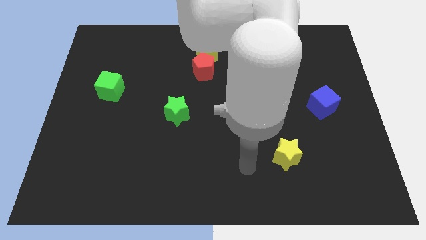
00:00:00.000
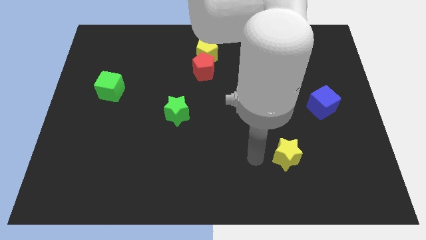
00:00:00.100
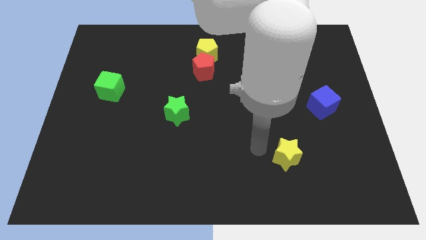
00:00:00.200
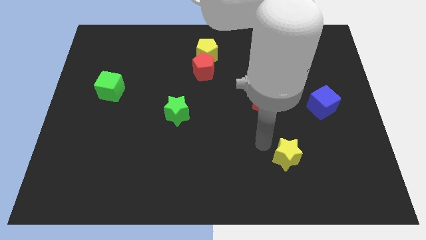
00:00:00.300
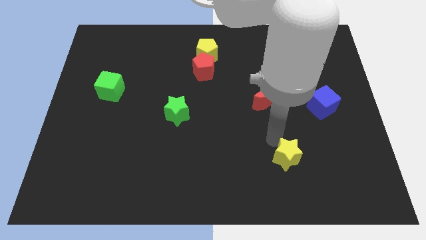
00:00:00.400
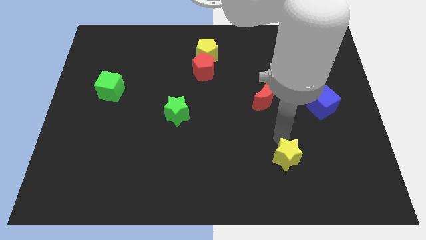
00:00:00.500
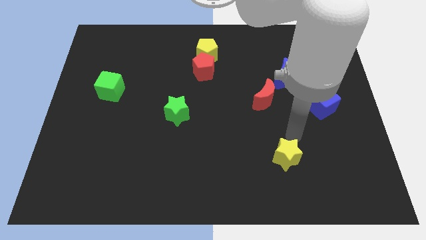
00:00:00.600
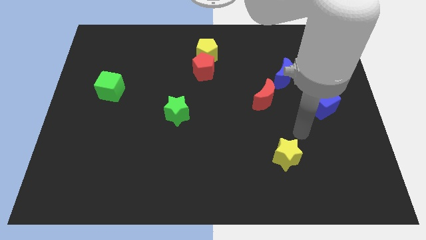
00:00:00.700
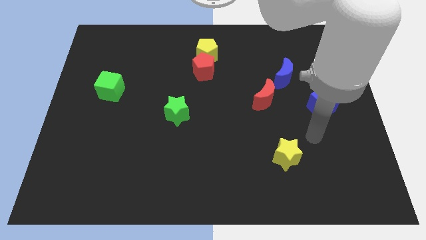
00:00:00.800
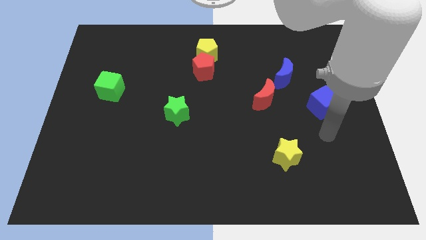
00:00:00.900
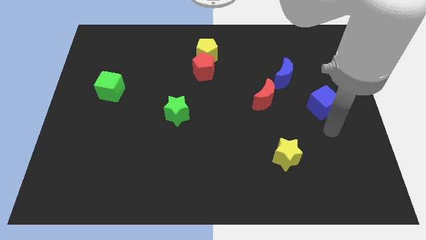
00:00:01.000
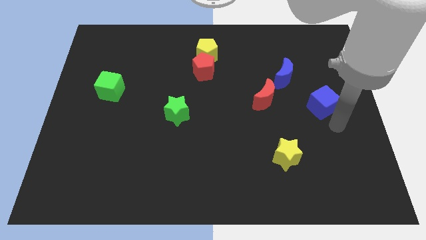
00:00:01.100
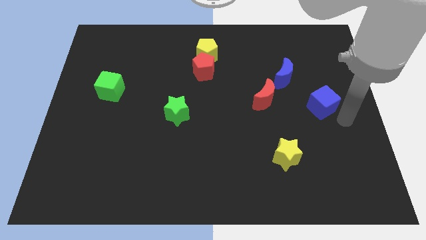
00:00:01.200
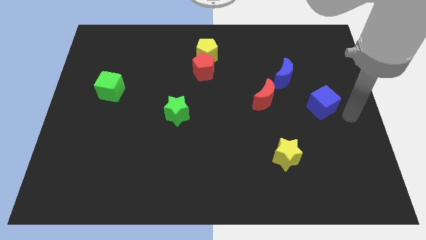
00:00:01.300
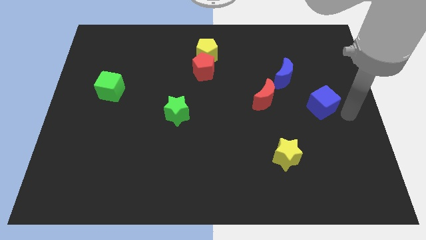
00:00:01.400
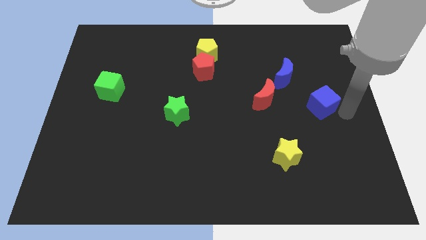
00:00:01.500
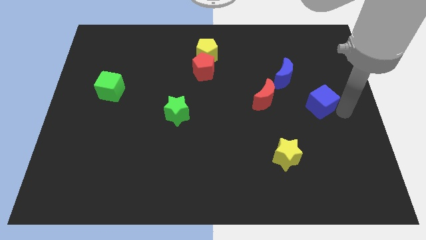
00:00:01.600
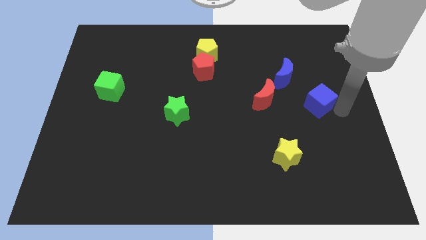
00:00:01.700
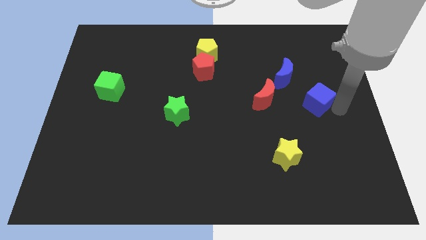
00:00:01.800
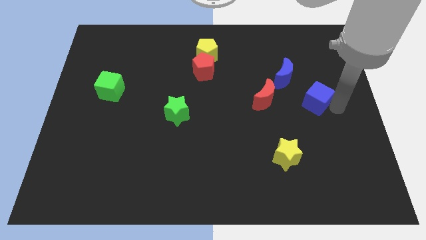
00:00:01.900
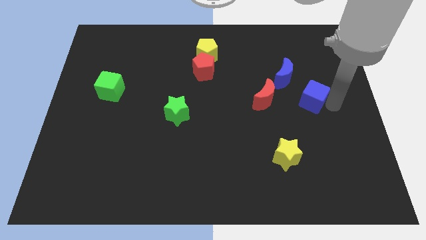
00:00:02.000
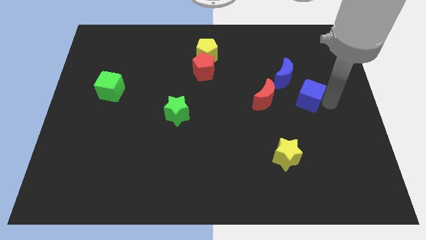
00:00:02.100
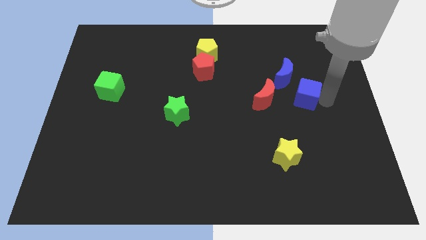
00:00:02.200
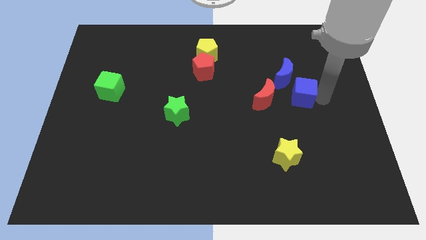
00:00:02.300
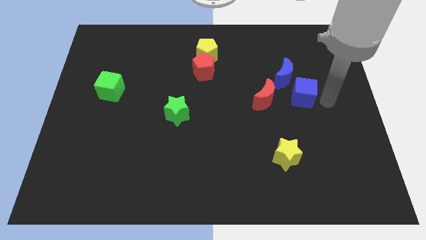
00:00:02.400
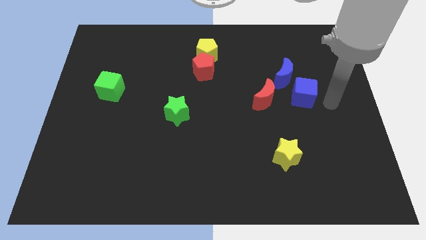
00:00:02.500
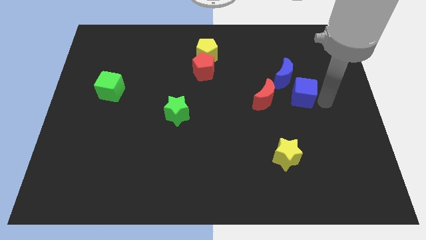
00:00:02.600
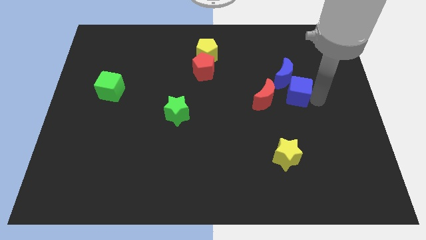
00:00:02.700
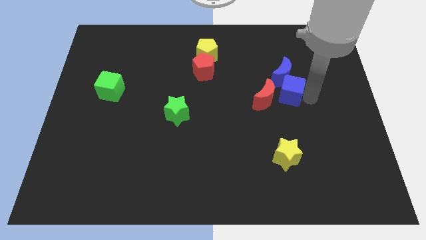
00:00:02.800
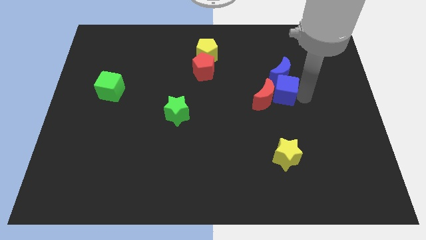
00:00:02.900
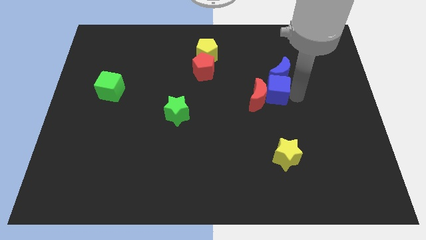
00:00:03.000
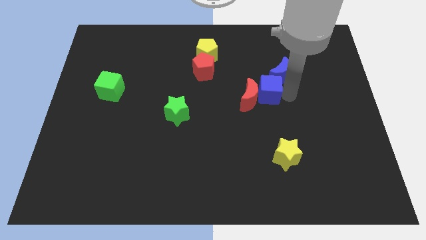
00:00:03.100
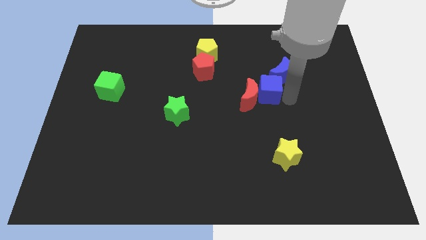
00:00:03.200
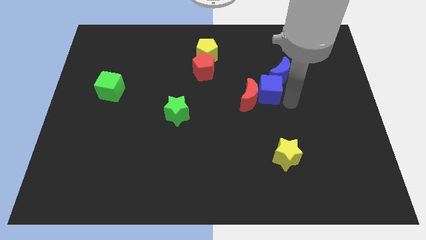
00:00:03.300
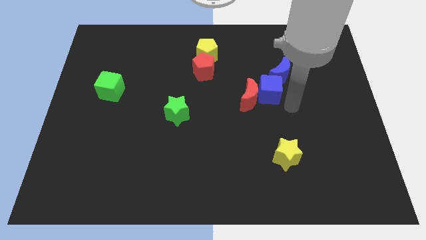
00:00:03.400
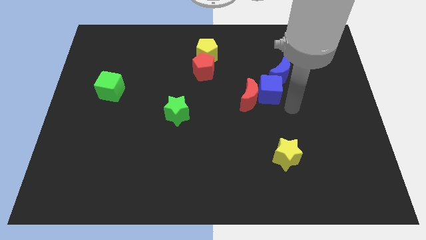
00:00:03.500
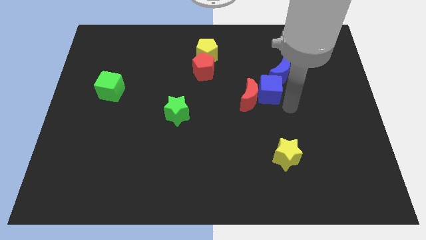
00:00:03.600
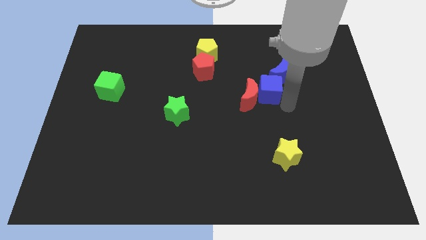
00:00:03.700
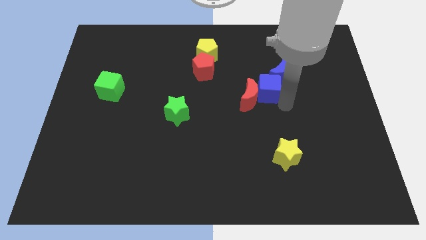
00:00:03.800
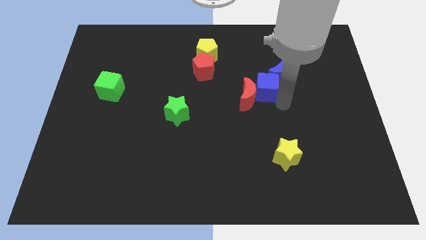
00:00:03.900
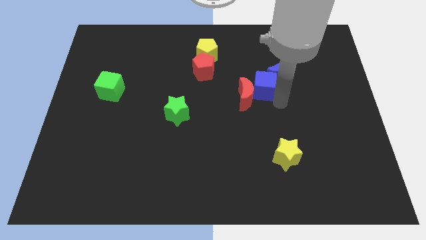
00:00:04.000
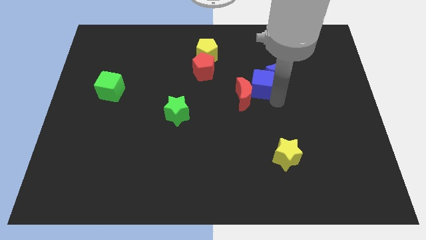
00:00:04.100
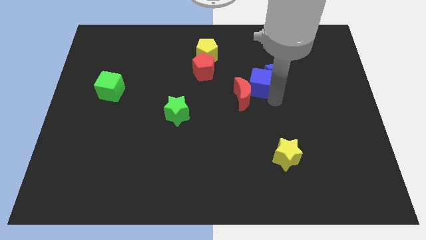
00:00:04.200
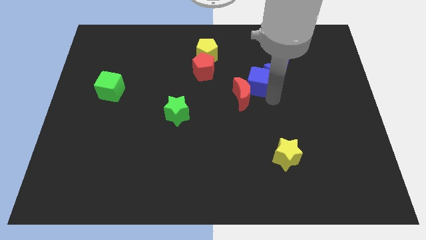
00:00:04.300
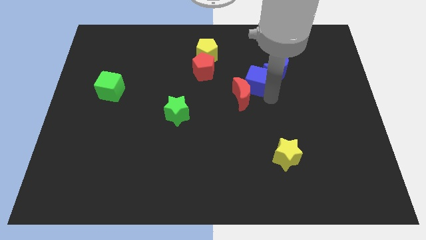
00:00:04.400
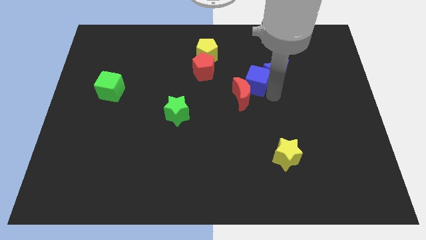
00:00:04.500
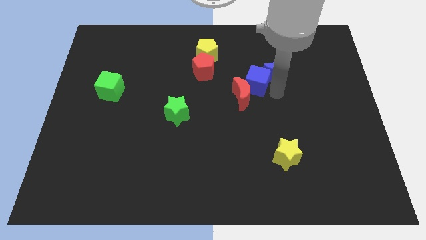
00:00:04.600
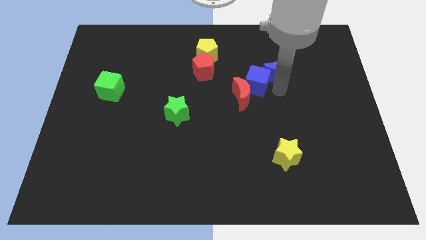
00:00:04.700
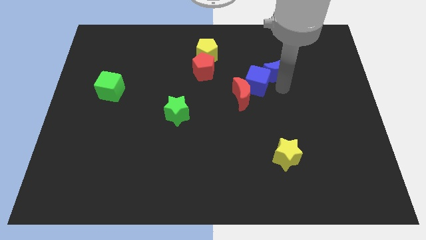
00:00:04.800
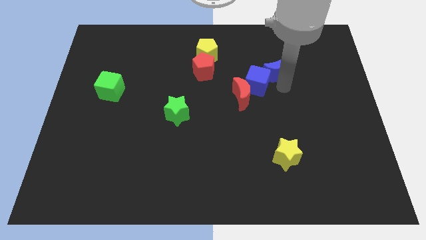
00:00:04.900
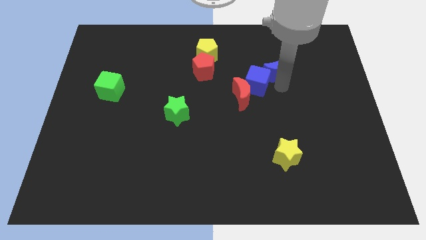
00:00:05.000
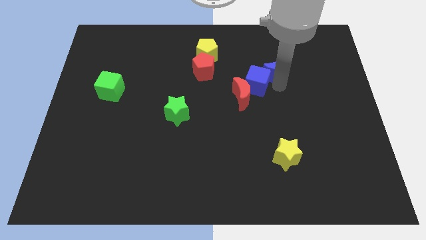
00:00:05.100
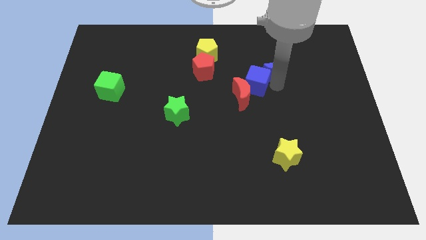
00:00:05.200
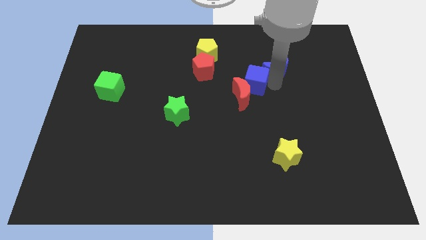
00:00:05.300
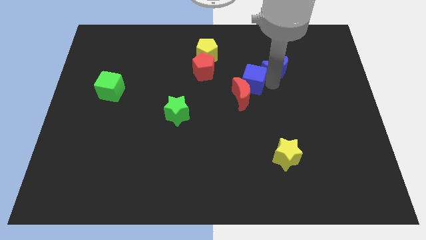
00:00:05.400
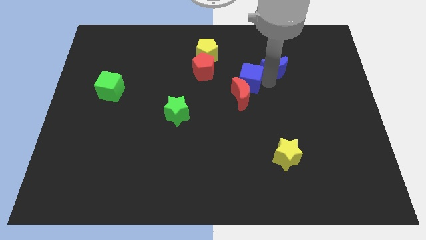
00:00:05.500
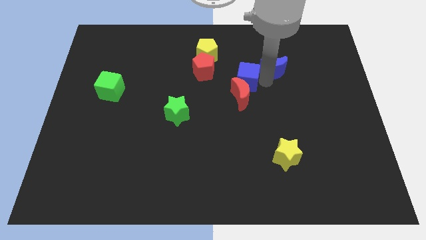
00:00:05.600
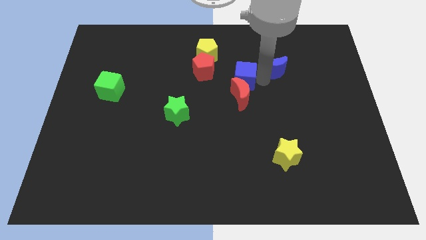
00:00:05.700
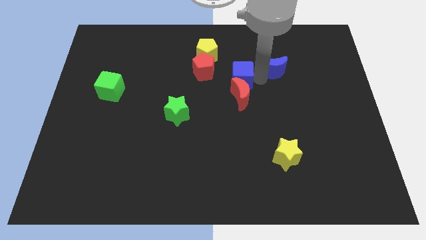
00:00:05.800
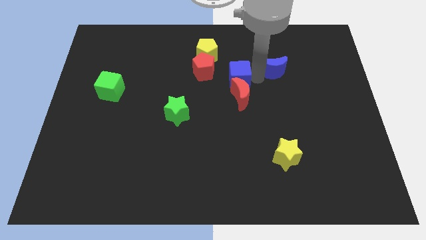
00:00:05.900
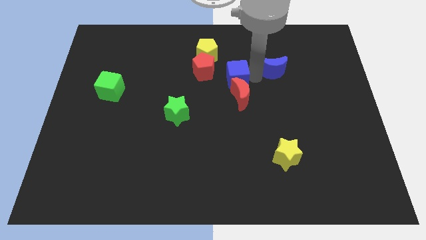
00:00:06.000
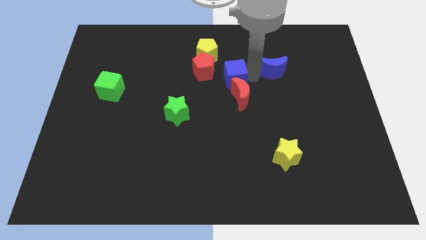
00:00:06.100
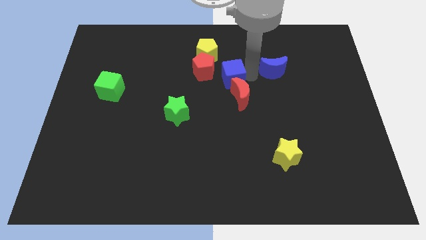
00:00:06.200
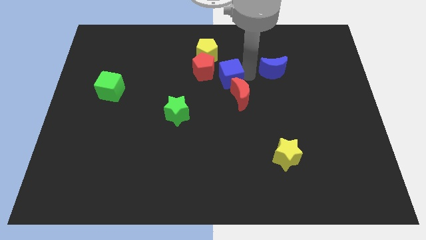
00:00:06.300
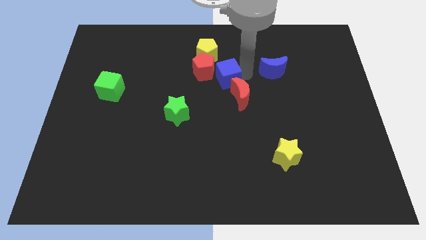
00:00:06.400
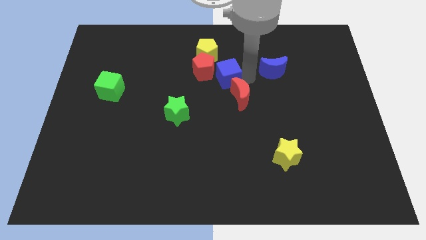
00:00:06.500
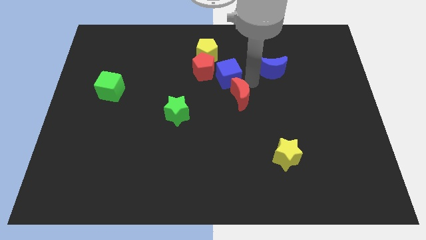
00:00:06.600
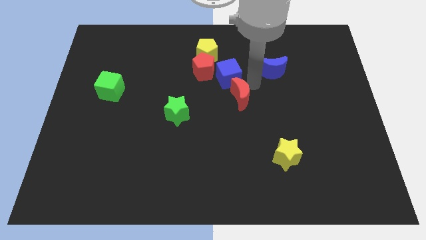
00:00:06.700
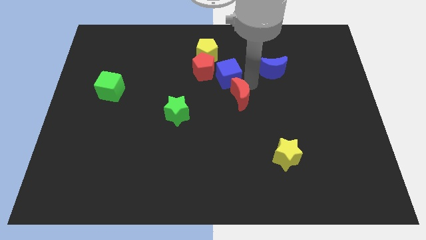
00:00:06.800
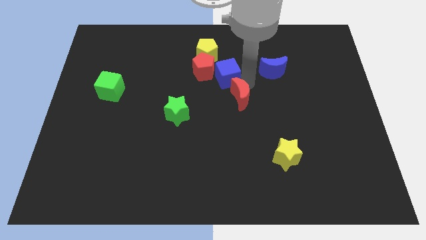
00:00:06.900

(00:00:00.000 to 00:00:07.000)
move the blue cube to the red pentagon

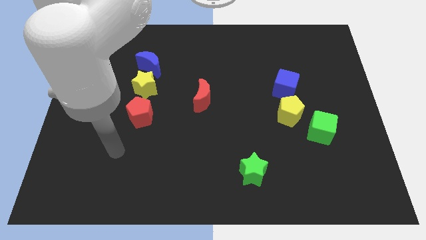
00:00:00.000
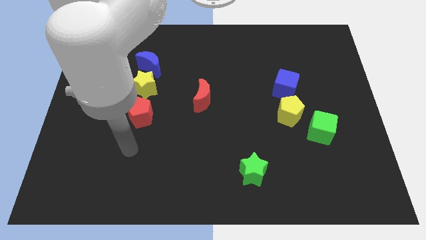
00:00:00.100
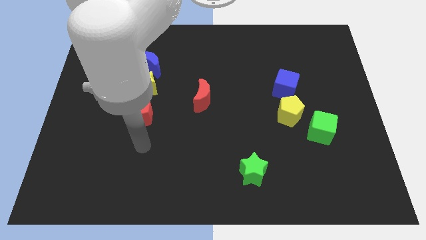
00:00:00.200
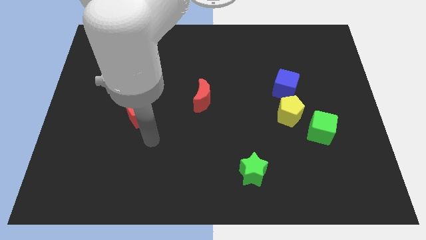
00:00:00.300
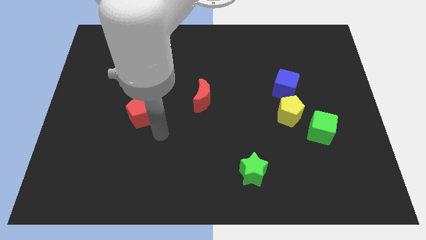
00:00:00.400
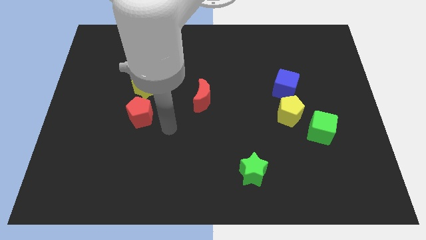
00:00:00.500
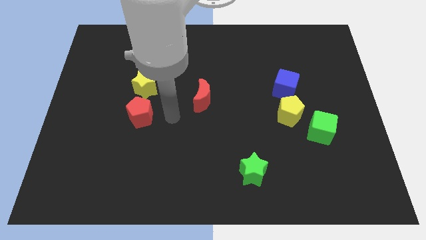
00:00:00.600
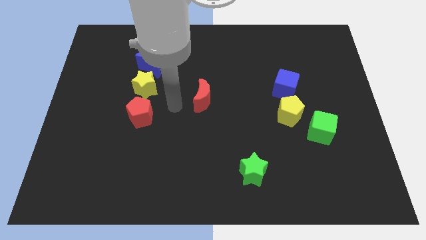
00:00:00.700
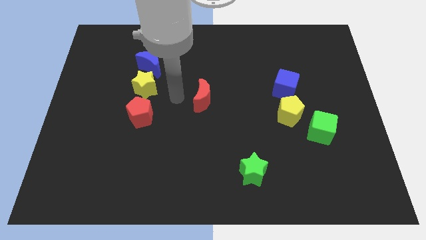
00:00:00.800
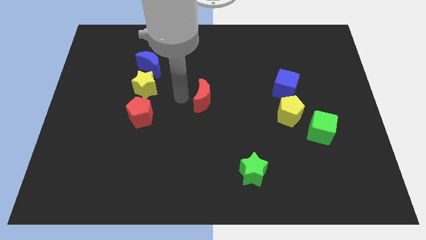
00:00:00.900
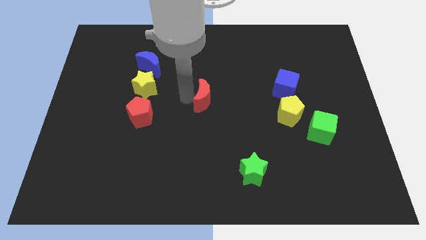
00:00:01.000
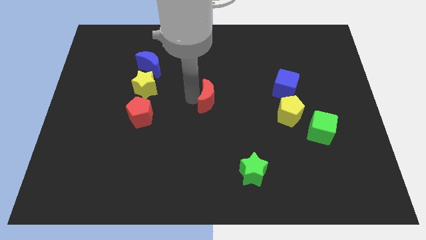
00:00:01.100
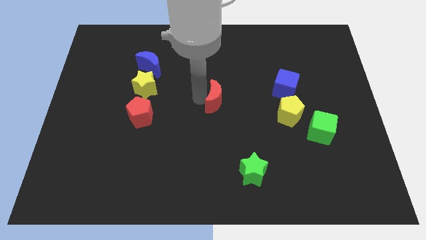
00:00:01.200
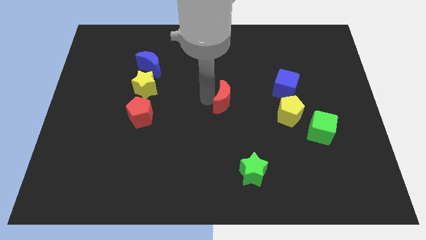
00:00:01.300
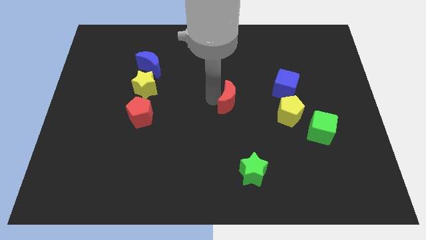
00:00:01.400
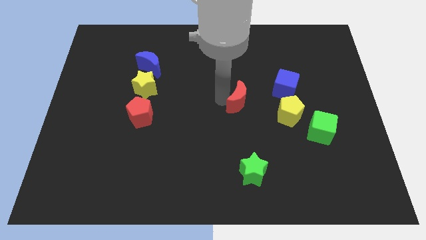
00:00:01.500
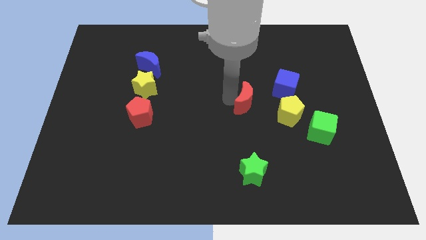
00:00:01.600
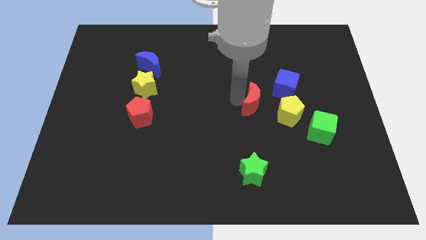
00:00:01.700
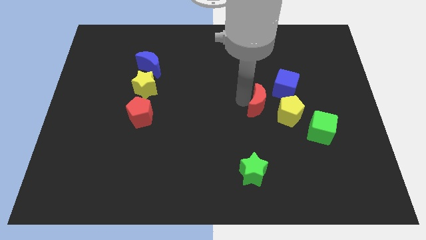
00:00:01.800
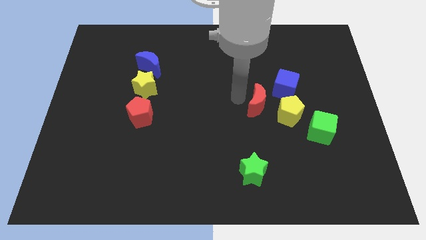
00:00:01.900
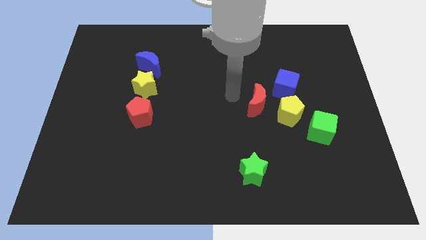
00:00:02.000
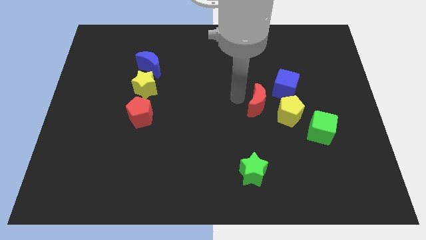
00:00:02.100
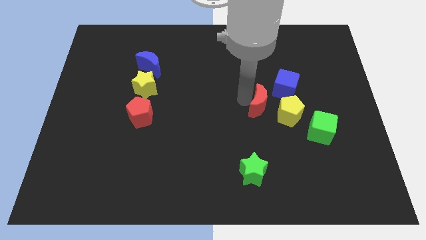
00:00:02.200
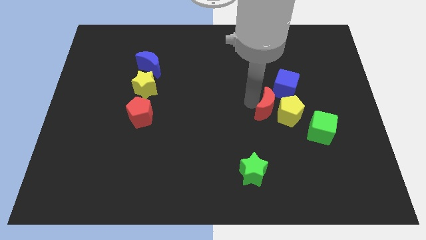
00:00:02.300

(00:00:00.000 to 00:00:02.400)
move the red moon to the yellow pentagon
